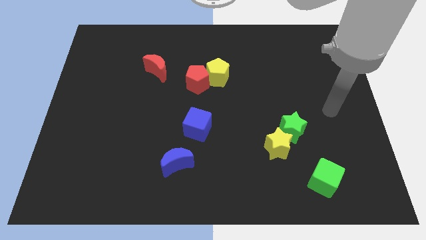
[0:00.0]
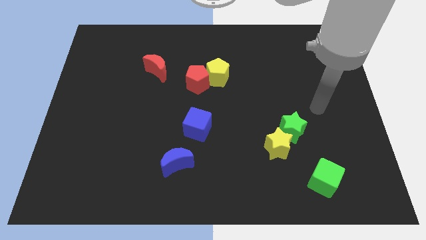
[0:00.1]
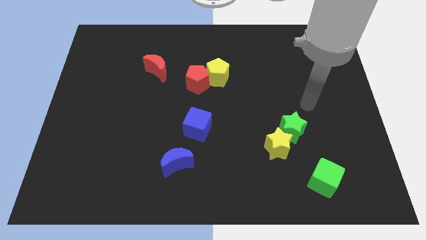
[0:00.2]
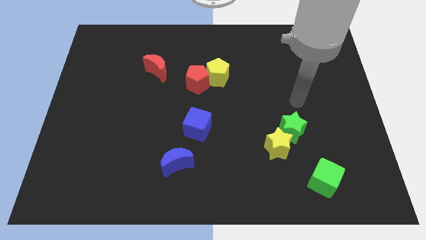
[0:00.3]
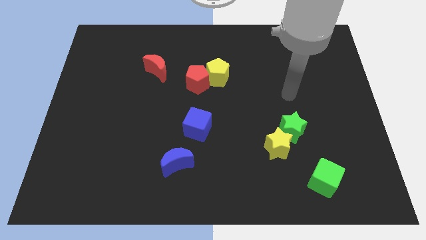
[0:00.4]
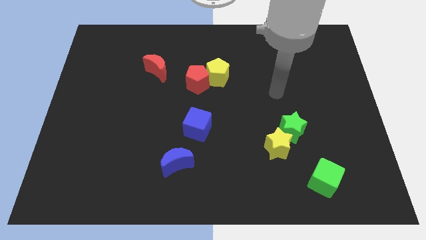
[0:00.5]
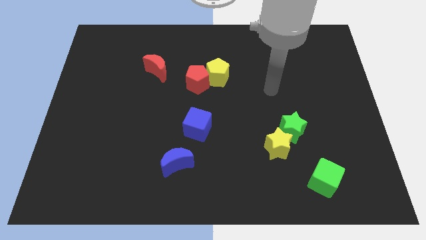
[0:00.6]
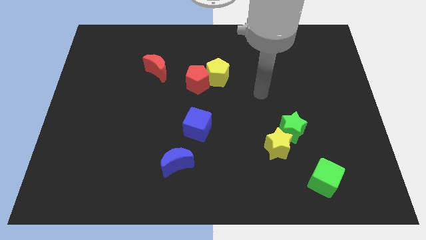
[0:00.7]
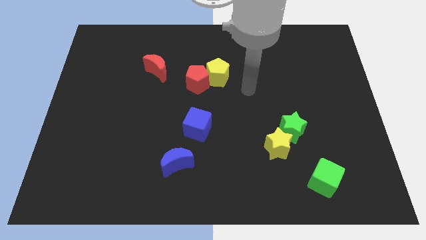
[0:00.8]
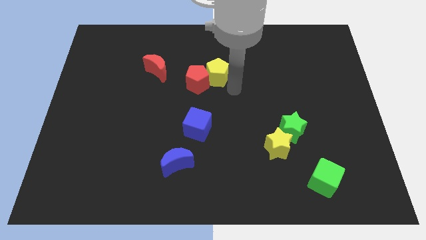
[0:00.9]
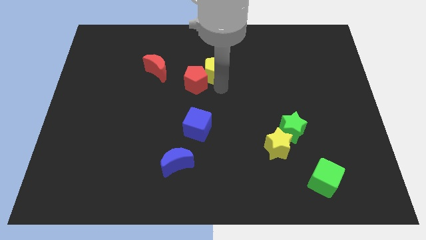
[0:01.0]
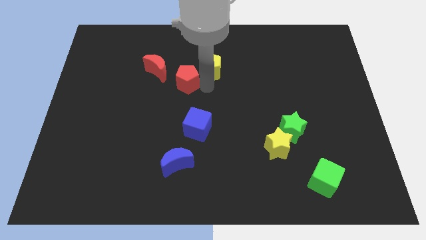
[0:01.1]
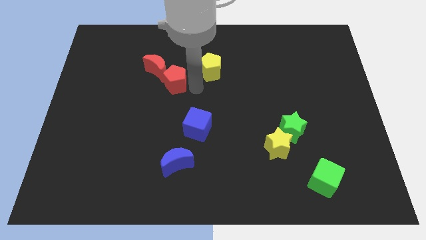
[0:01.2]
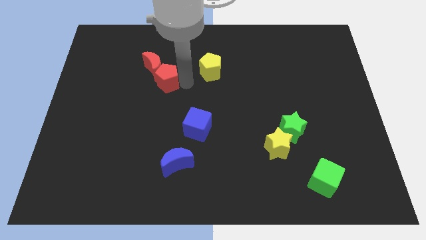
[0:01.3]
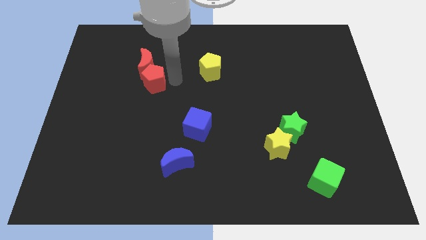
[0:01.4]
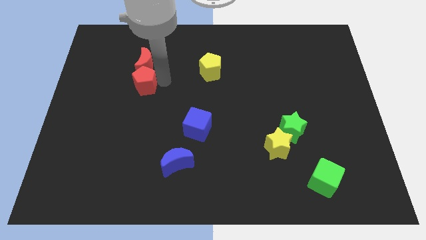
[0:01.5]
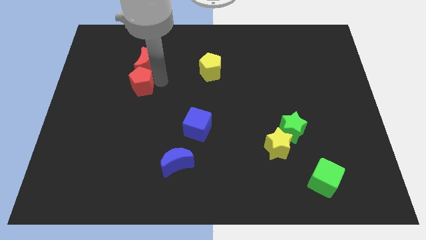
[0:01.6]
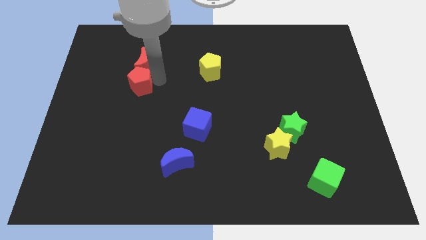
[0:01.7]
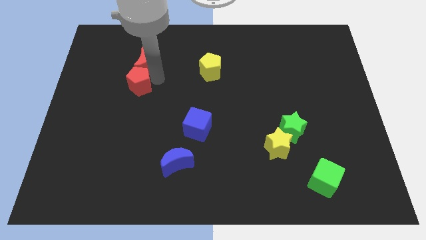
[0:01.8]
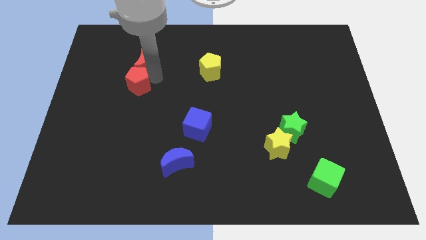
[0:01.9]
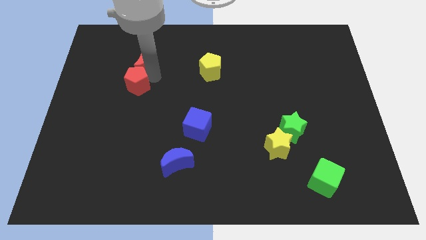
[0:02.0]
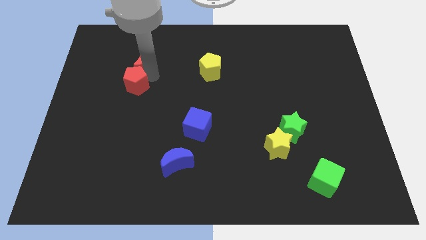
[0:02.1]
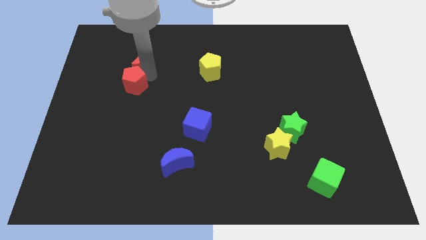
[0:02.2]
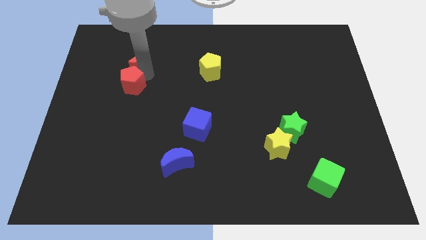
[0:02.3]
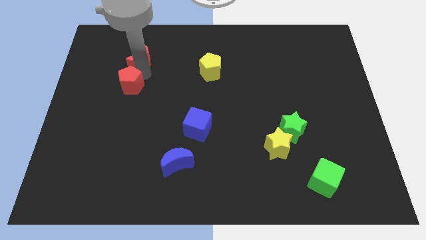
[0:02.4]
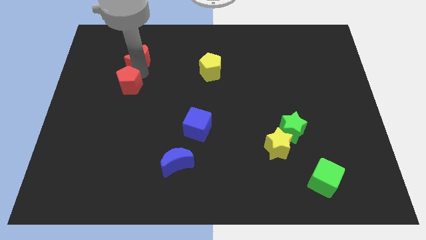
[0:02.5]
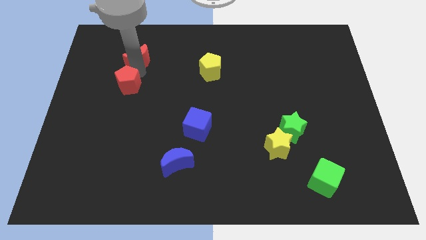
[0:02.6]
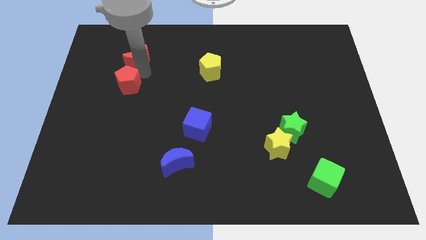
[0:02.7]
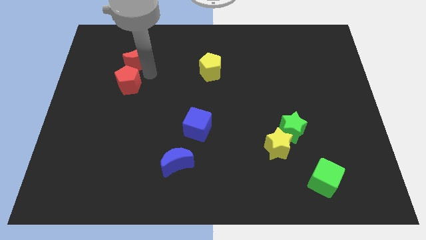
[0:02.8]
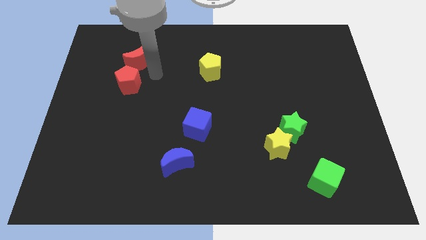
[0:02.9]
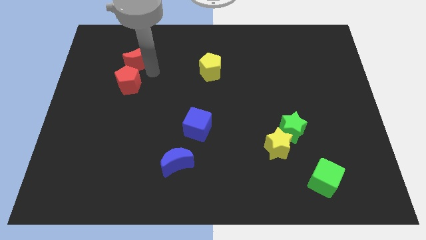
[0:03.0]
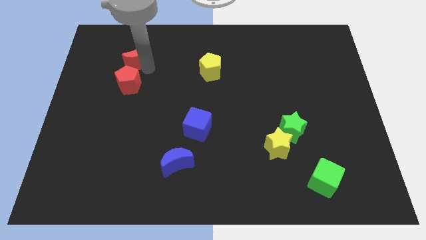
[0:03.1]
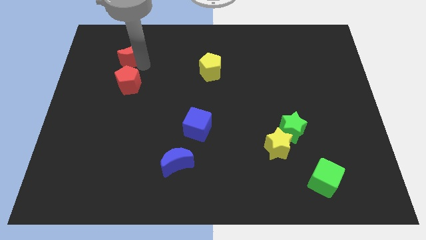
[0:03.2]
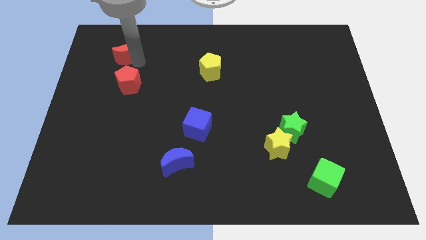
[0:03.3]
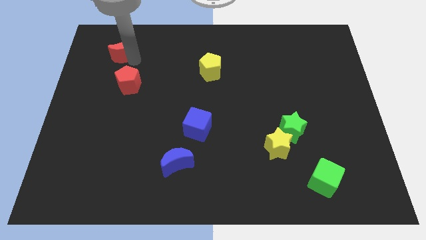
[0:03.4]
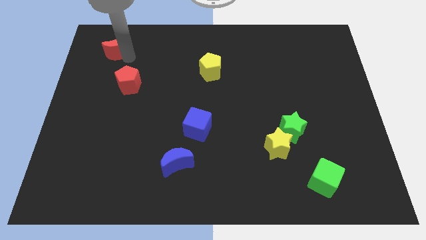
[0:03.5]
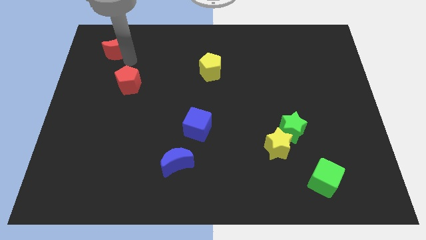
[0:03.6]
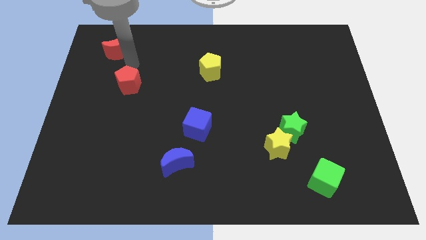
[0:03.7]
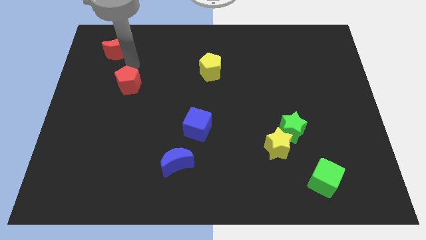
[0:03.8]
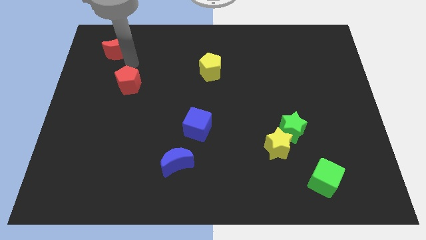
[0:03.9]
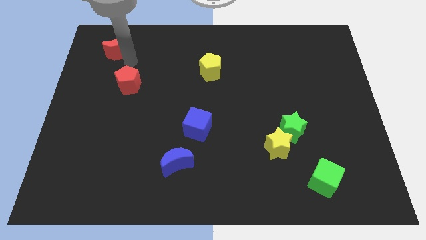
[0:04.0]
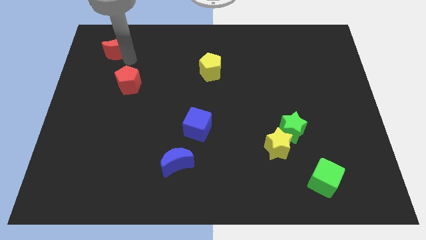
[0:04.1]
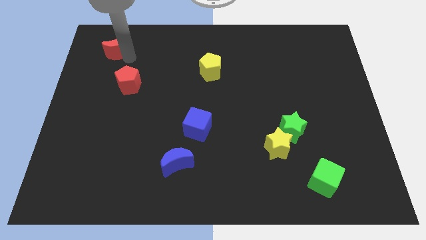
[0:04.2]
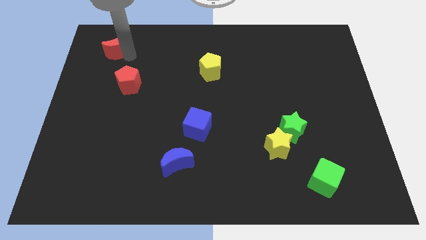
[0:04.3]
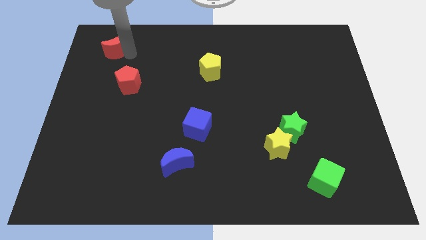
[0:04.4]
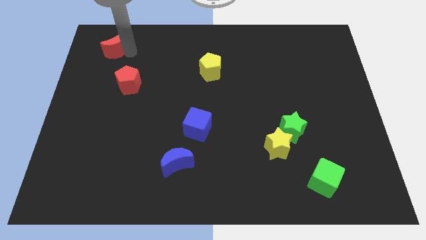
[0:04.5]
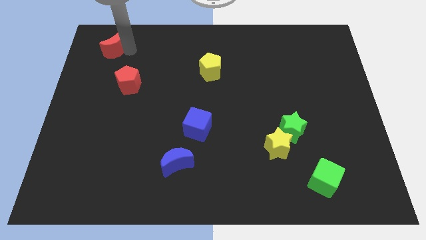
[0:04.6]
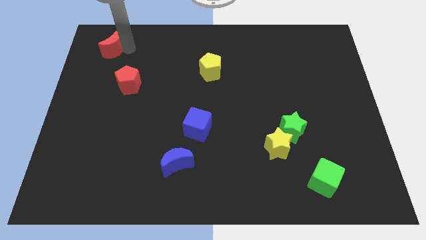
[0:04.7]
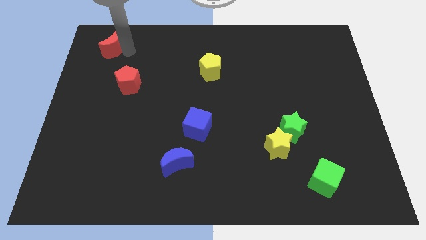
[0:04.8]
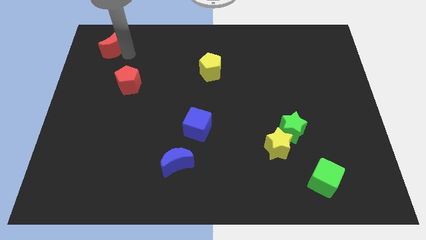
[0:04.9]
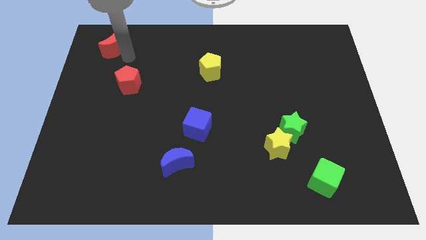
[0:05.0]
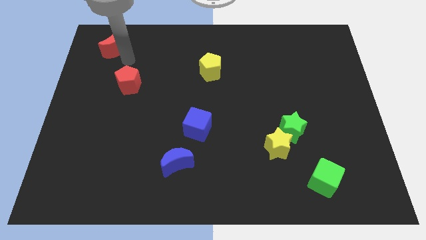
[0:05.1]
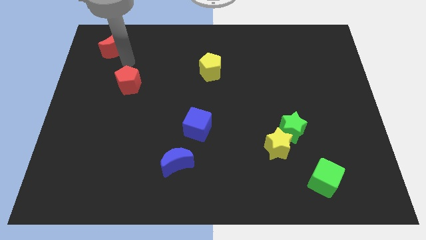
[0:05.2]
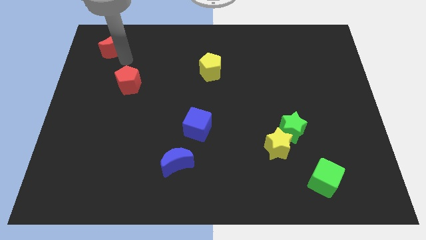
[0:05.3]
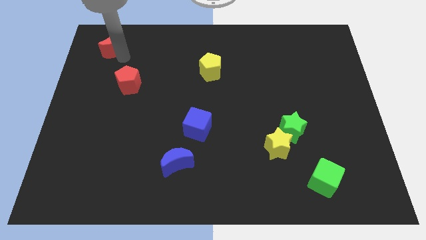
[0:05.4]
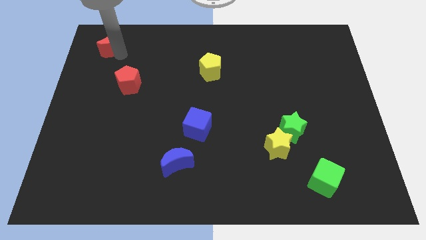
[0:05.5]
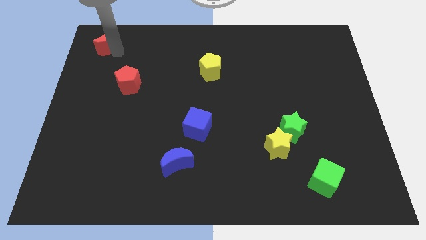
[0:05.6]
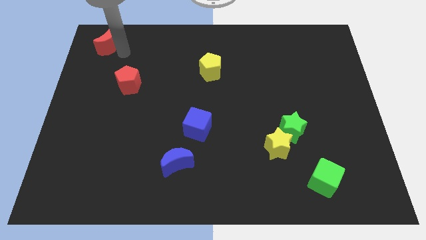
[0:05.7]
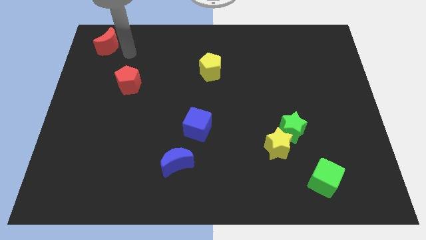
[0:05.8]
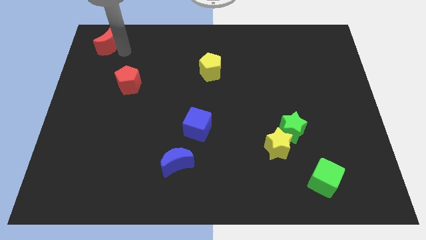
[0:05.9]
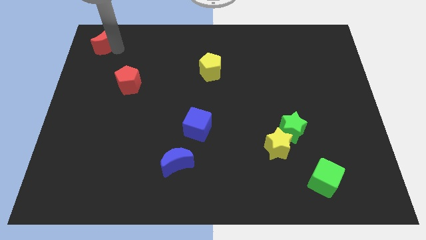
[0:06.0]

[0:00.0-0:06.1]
move the red moon to the top left
